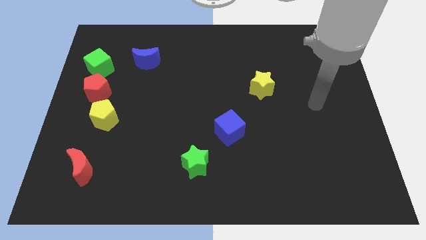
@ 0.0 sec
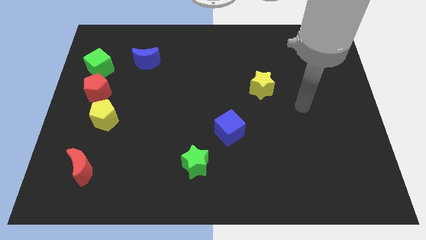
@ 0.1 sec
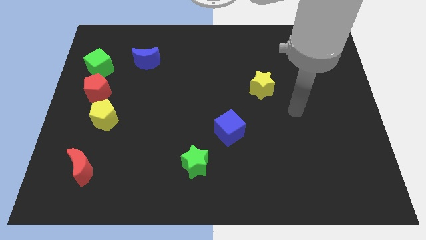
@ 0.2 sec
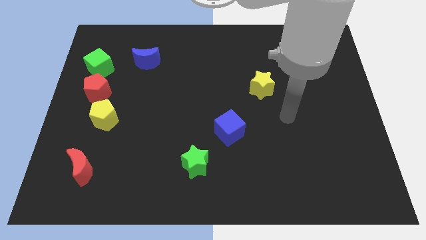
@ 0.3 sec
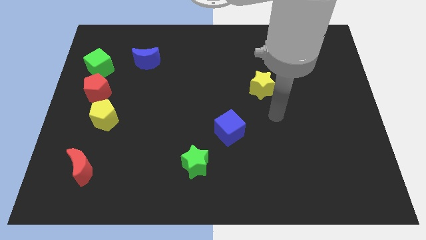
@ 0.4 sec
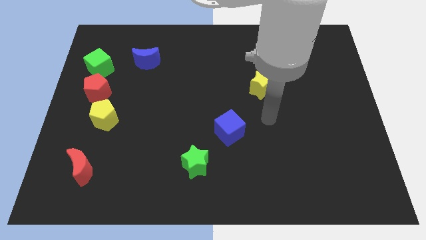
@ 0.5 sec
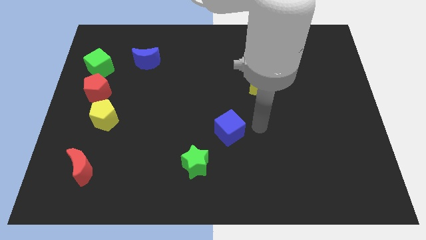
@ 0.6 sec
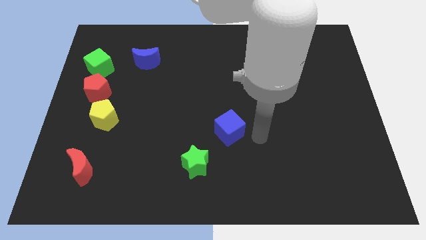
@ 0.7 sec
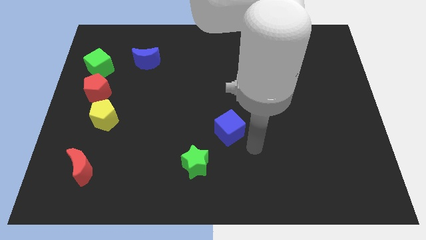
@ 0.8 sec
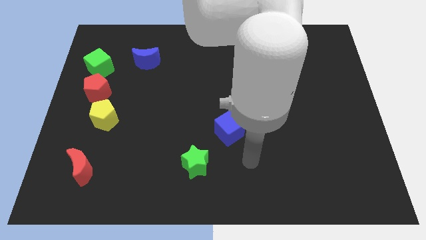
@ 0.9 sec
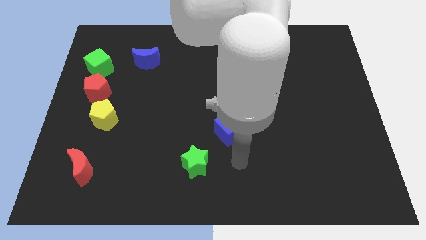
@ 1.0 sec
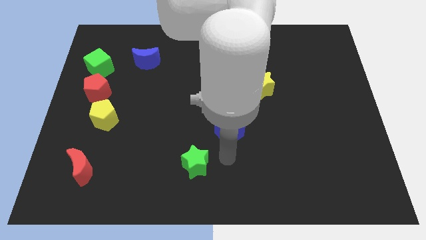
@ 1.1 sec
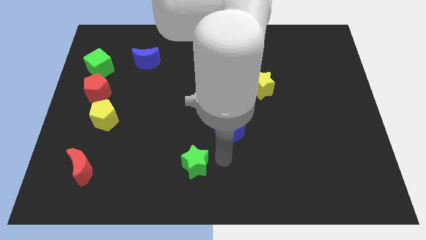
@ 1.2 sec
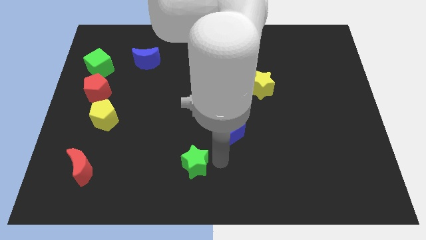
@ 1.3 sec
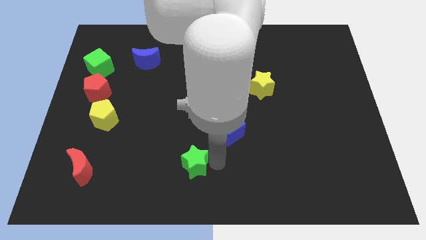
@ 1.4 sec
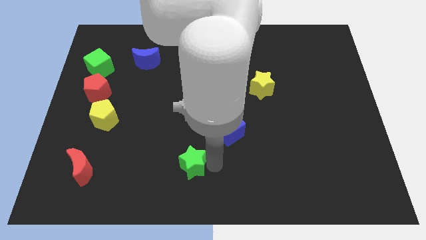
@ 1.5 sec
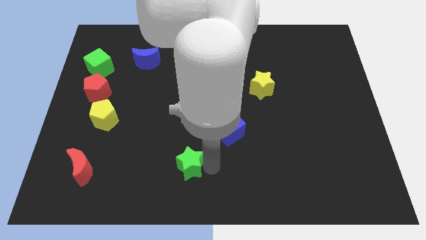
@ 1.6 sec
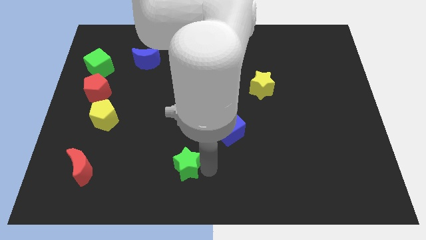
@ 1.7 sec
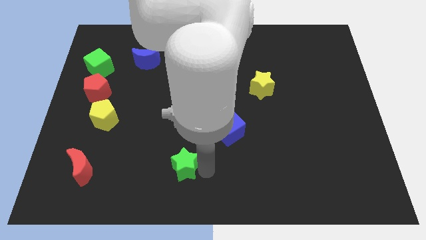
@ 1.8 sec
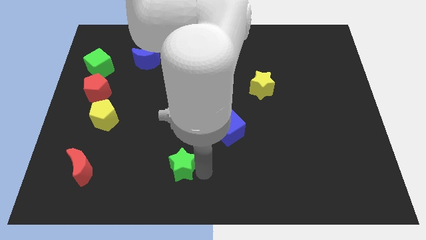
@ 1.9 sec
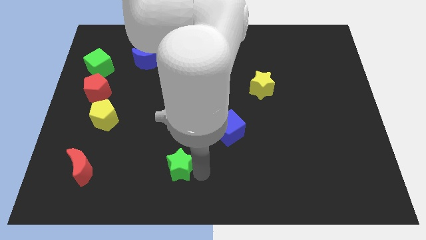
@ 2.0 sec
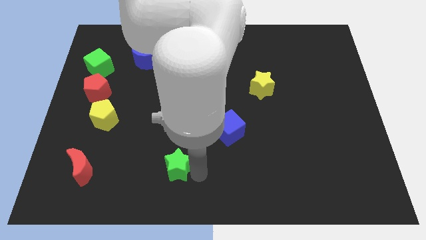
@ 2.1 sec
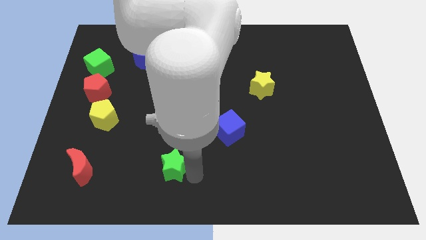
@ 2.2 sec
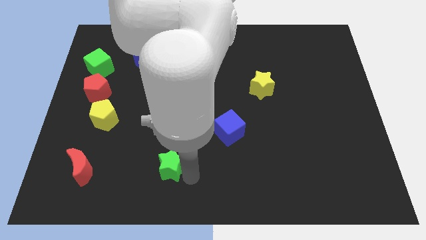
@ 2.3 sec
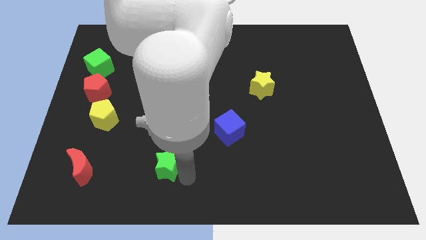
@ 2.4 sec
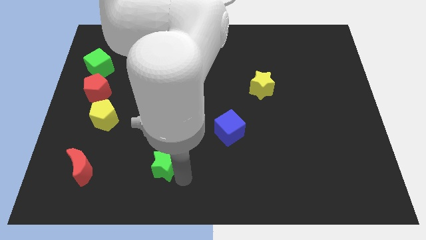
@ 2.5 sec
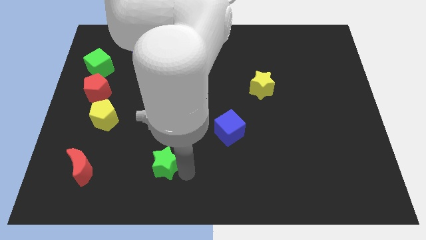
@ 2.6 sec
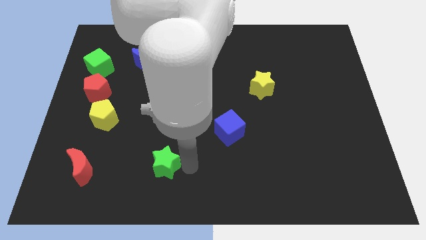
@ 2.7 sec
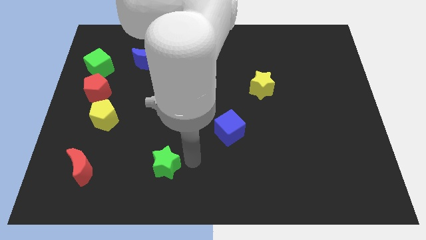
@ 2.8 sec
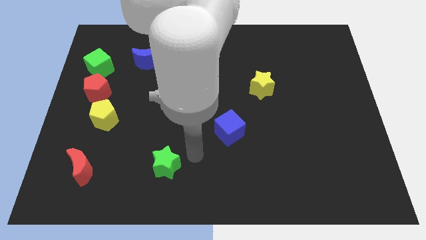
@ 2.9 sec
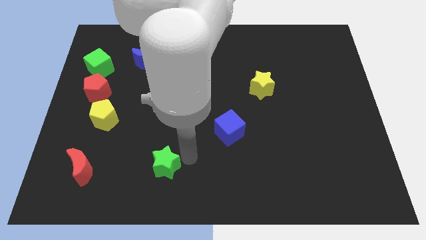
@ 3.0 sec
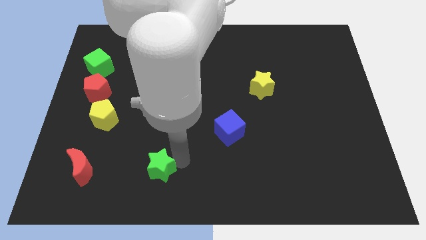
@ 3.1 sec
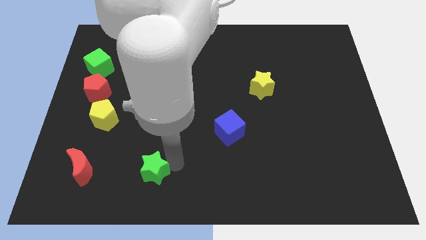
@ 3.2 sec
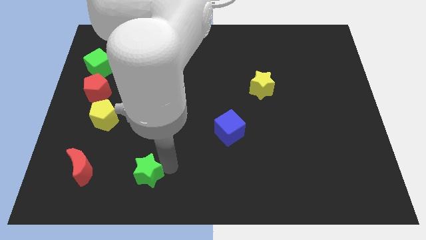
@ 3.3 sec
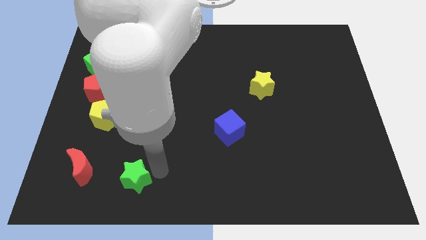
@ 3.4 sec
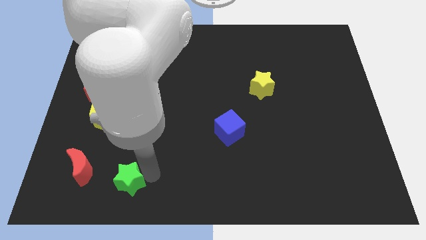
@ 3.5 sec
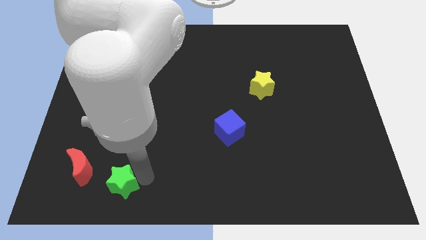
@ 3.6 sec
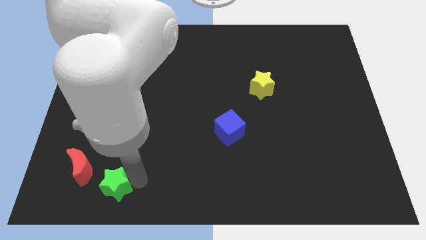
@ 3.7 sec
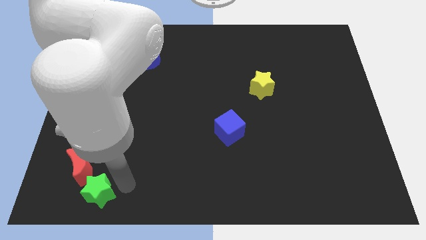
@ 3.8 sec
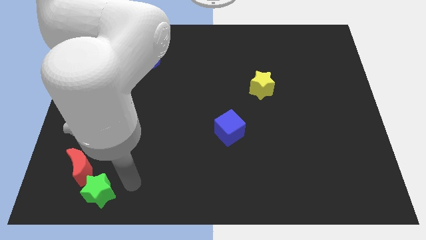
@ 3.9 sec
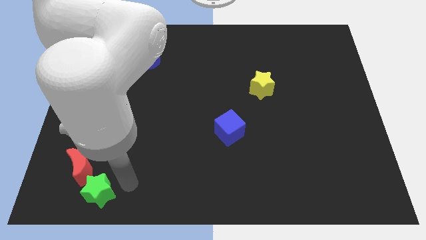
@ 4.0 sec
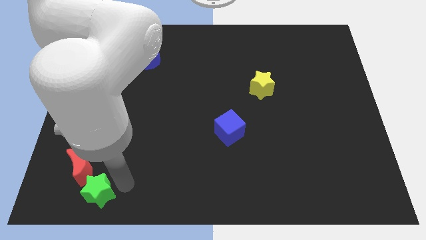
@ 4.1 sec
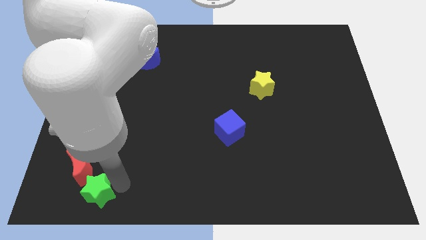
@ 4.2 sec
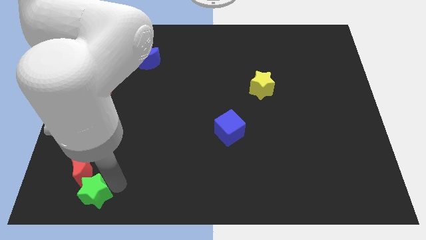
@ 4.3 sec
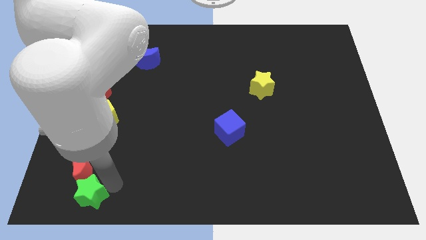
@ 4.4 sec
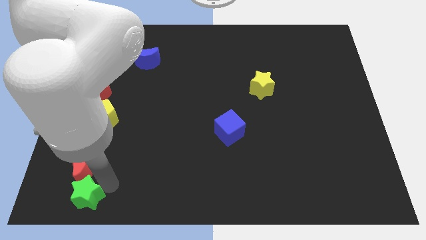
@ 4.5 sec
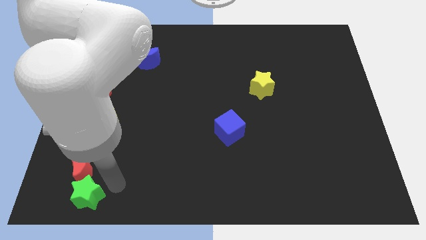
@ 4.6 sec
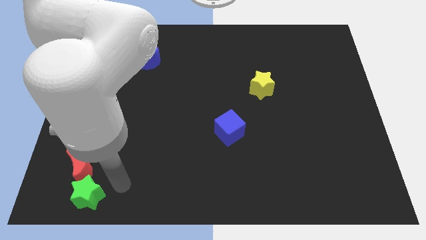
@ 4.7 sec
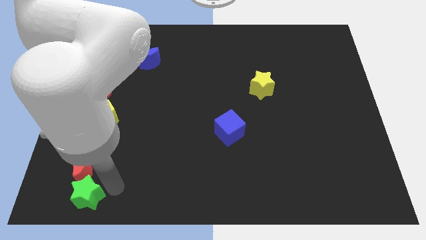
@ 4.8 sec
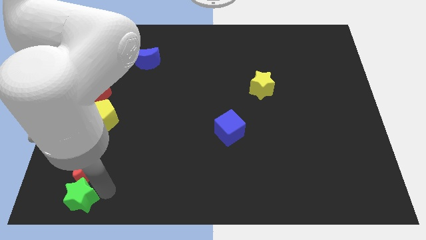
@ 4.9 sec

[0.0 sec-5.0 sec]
slide the green star to the lower left corner

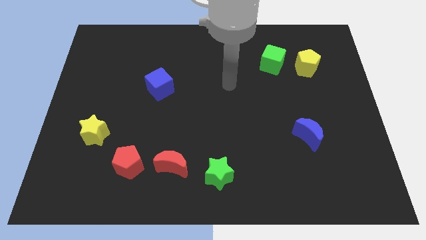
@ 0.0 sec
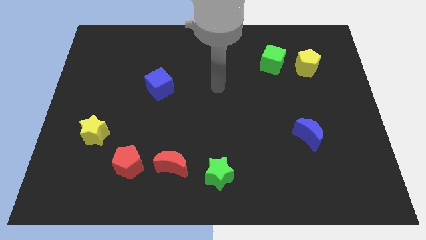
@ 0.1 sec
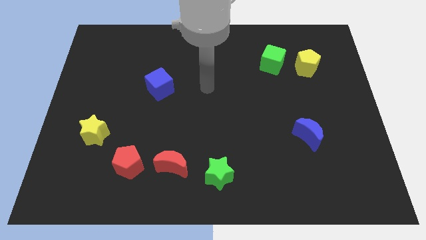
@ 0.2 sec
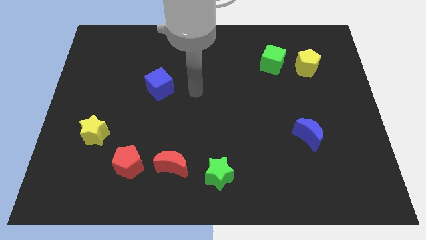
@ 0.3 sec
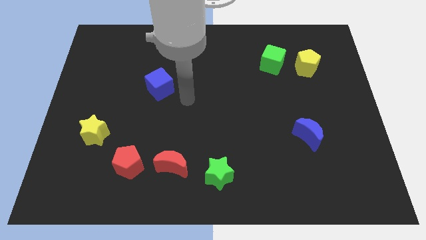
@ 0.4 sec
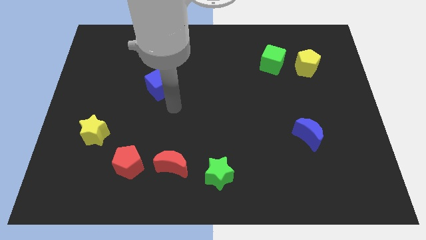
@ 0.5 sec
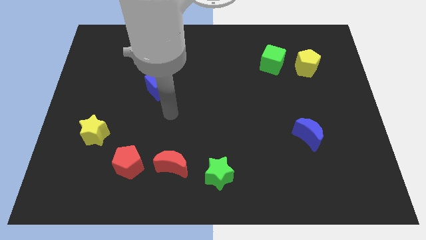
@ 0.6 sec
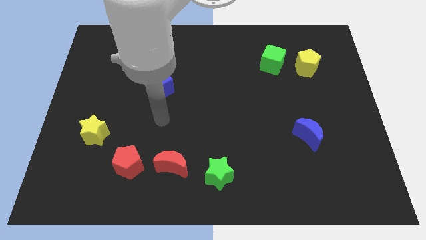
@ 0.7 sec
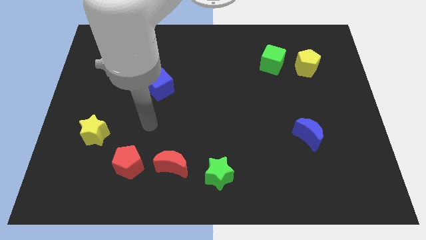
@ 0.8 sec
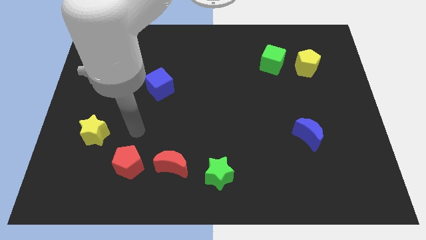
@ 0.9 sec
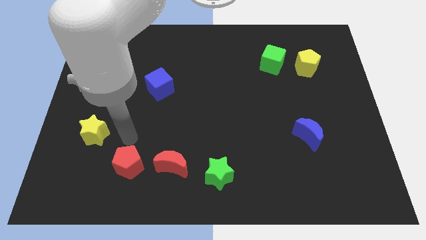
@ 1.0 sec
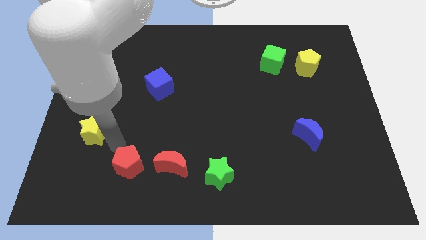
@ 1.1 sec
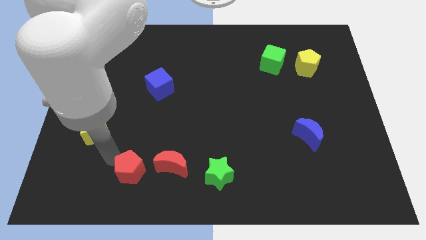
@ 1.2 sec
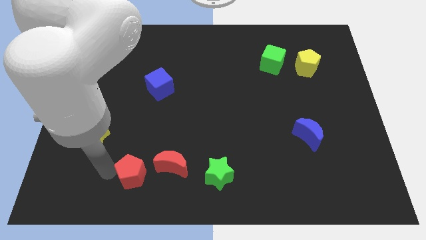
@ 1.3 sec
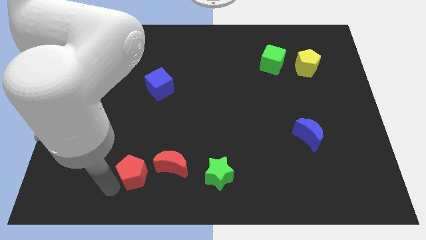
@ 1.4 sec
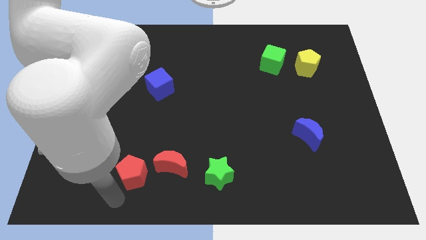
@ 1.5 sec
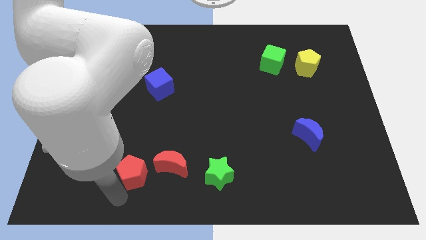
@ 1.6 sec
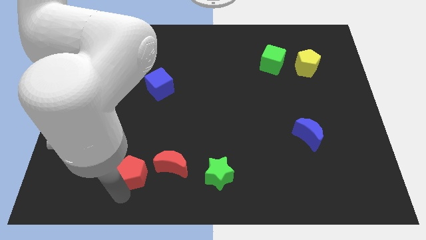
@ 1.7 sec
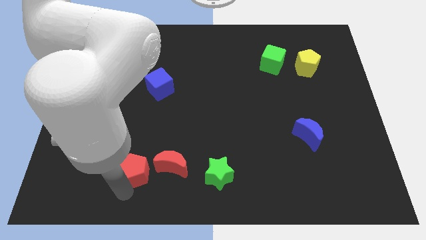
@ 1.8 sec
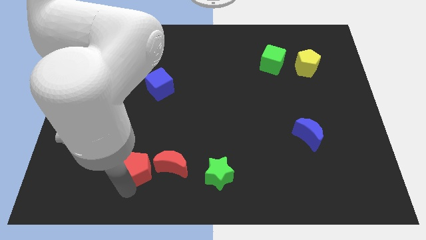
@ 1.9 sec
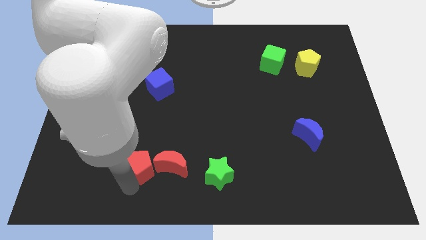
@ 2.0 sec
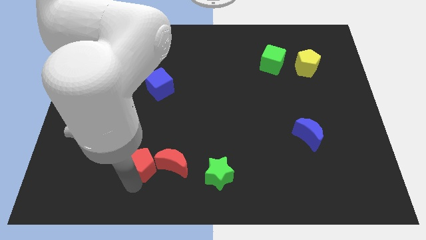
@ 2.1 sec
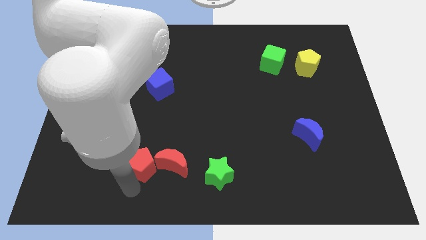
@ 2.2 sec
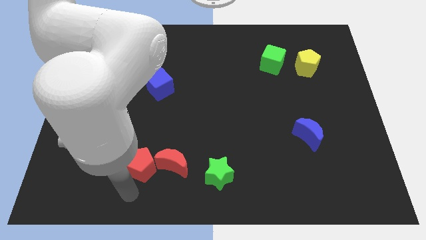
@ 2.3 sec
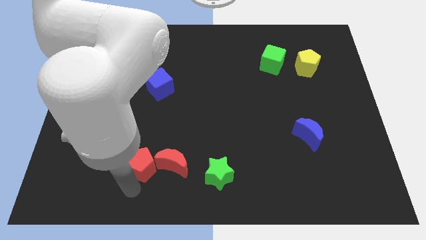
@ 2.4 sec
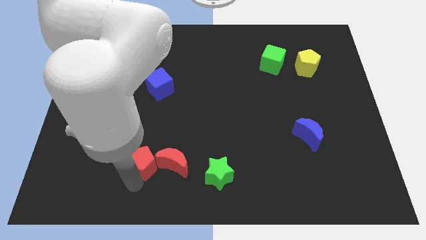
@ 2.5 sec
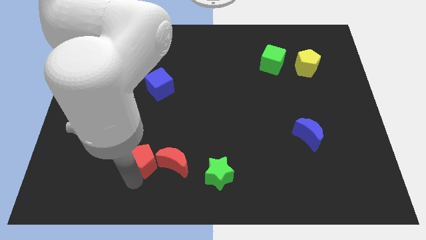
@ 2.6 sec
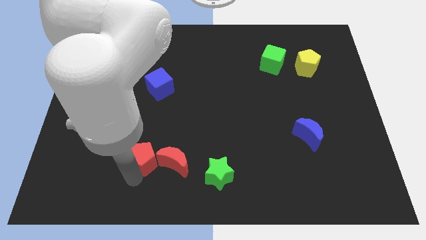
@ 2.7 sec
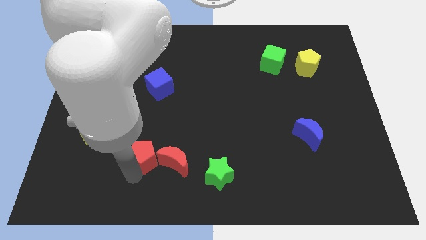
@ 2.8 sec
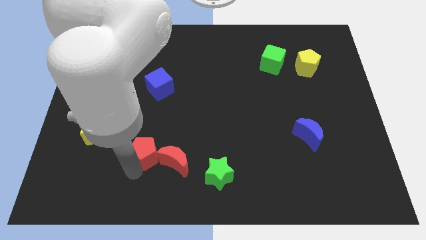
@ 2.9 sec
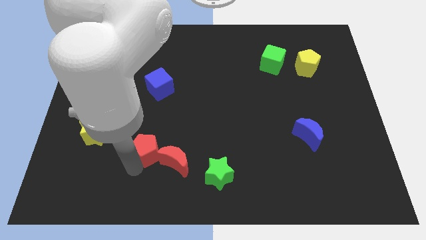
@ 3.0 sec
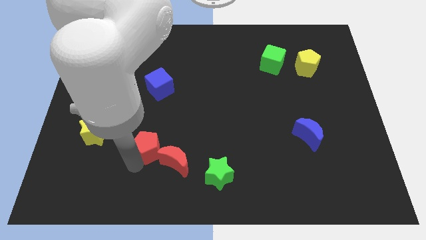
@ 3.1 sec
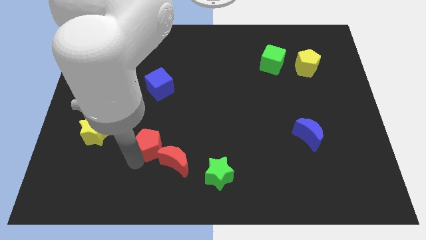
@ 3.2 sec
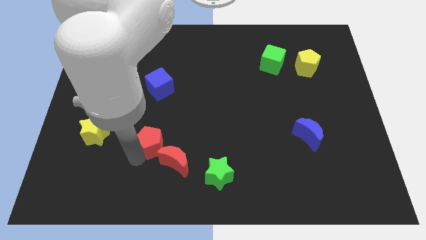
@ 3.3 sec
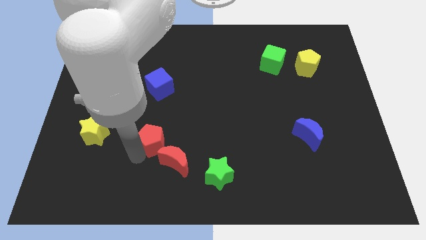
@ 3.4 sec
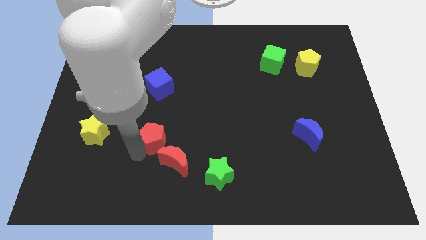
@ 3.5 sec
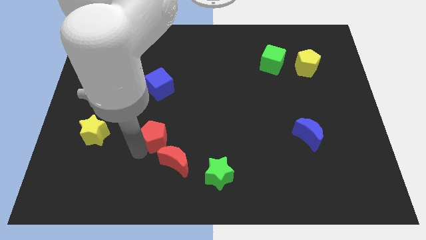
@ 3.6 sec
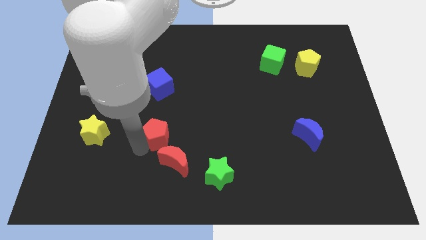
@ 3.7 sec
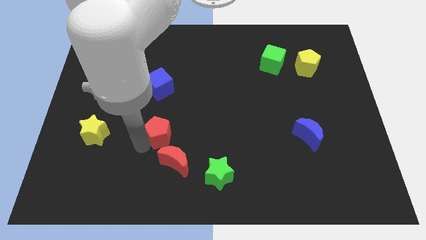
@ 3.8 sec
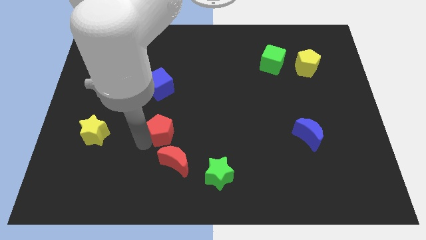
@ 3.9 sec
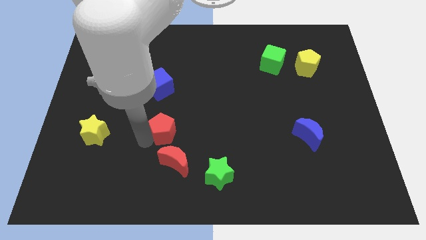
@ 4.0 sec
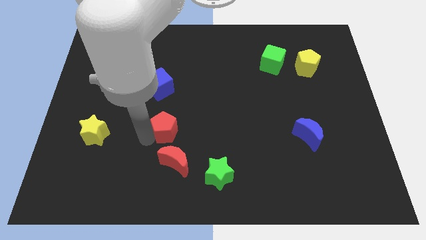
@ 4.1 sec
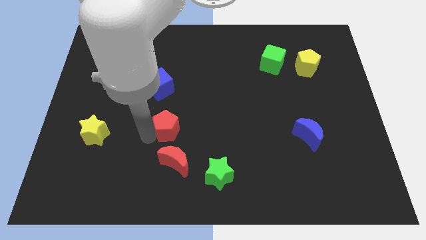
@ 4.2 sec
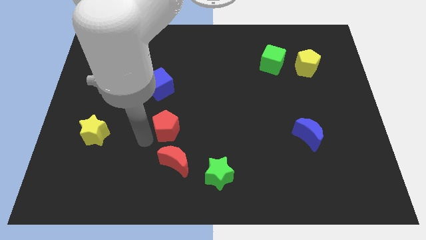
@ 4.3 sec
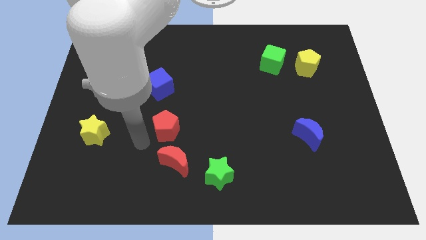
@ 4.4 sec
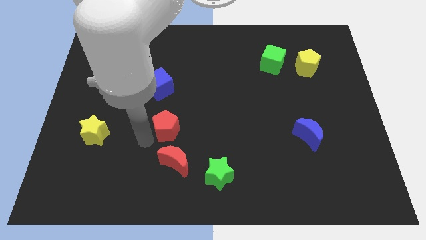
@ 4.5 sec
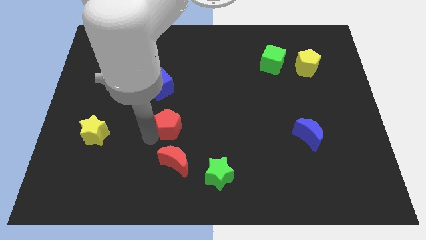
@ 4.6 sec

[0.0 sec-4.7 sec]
put the red pentagon to the center
